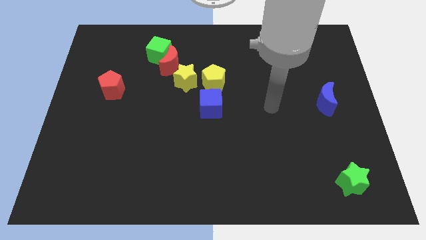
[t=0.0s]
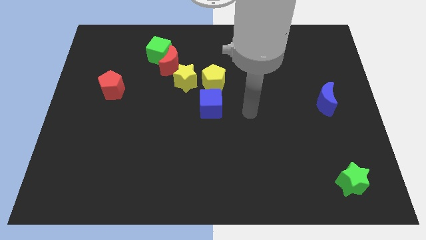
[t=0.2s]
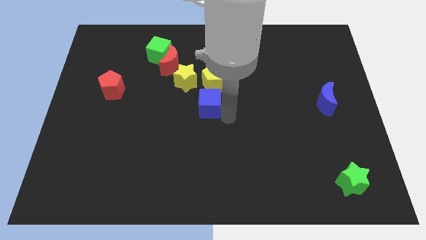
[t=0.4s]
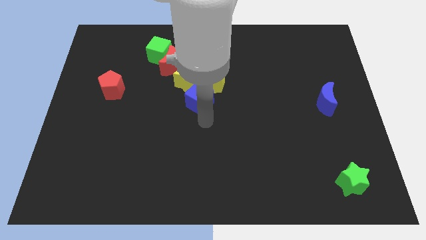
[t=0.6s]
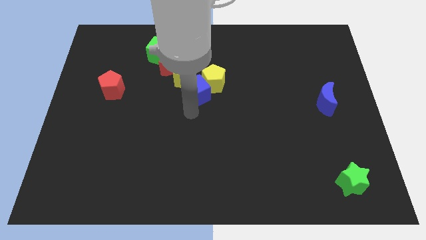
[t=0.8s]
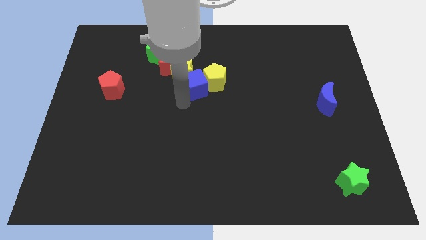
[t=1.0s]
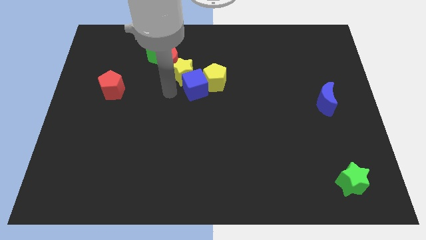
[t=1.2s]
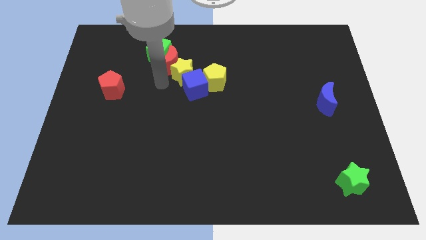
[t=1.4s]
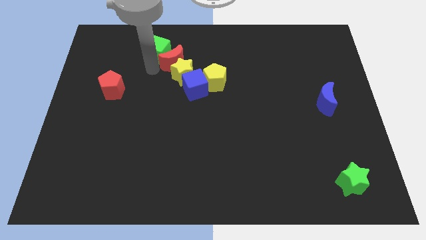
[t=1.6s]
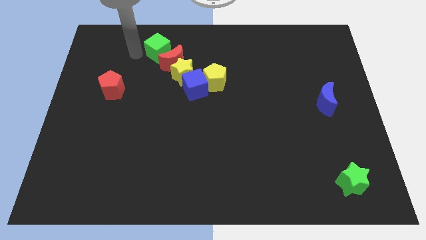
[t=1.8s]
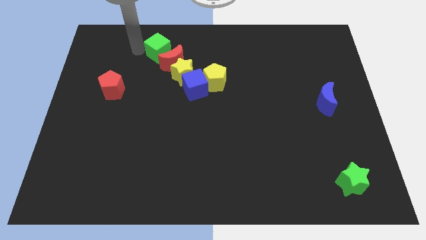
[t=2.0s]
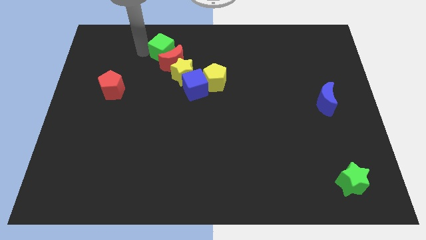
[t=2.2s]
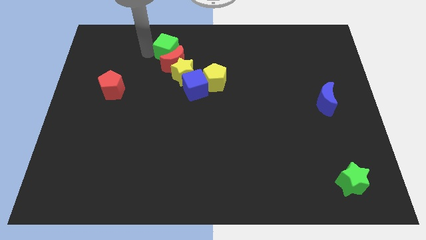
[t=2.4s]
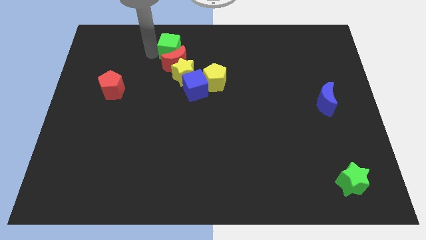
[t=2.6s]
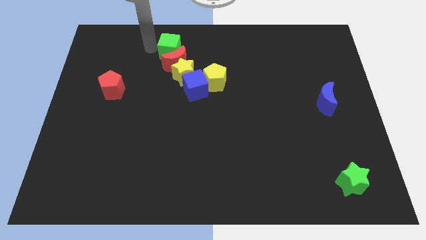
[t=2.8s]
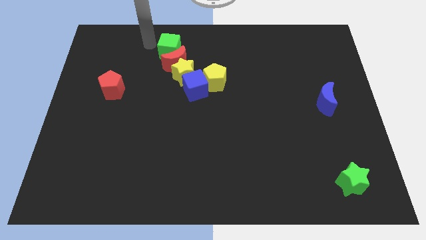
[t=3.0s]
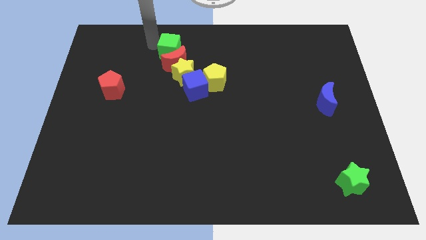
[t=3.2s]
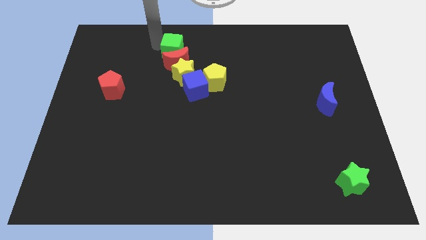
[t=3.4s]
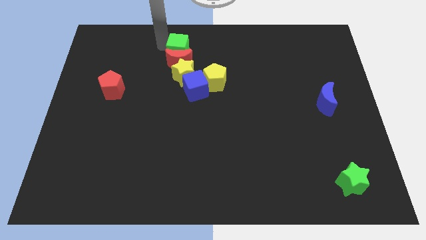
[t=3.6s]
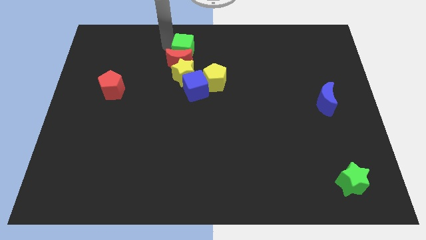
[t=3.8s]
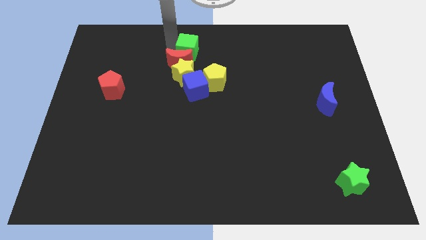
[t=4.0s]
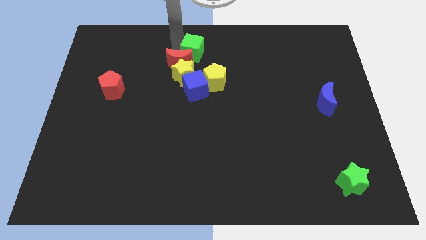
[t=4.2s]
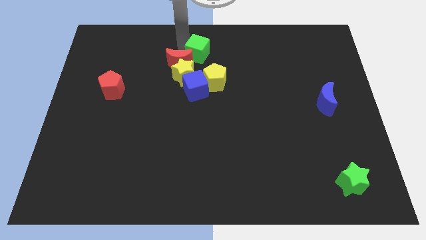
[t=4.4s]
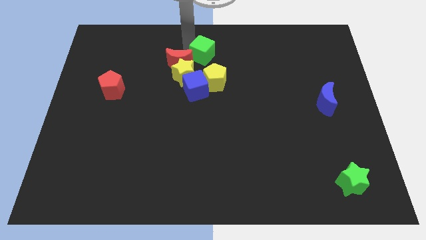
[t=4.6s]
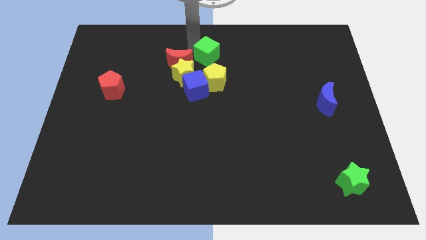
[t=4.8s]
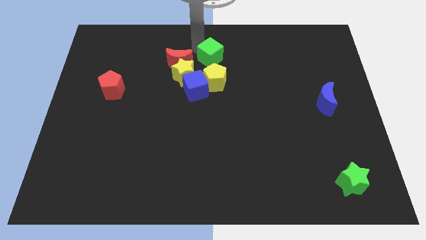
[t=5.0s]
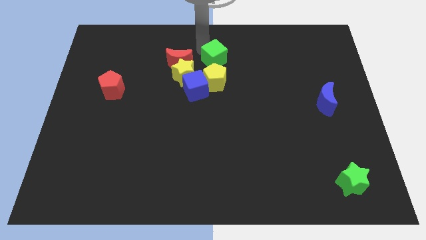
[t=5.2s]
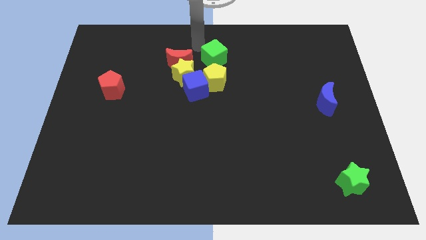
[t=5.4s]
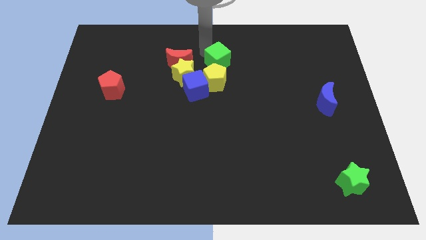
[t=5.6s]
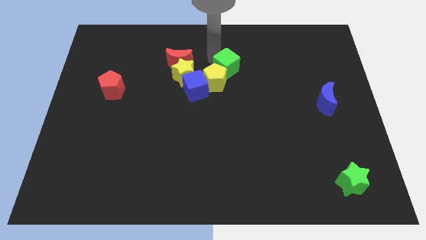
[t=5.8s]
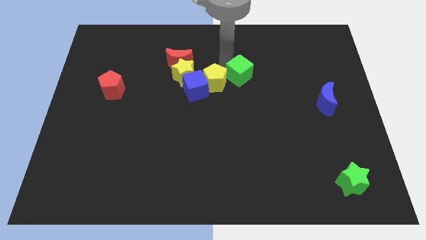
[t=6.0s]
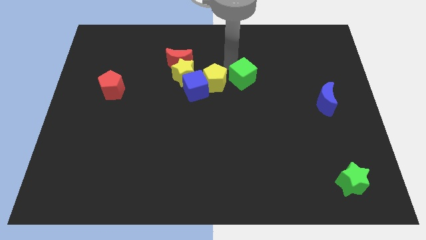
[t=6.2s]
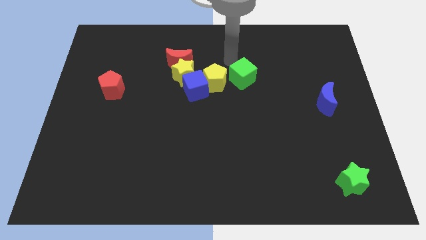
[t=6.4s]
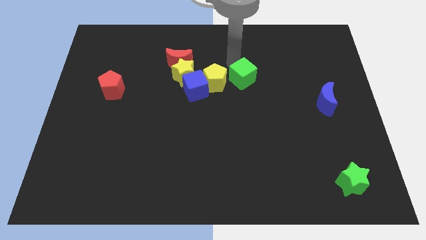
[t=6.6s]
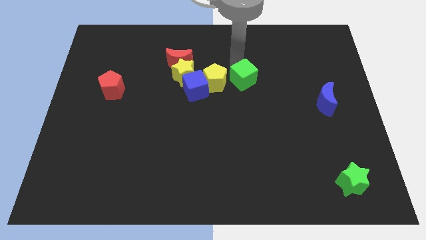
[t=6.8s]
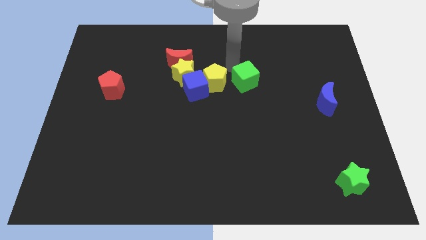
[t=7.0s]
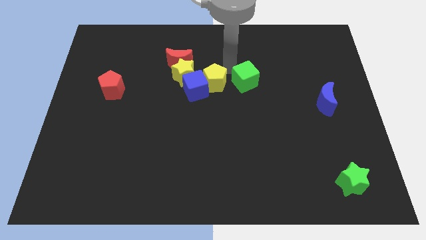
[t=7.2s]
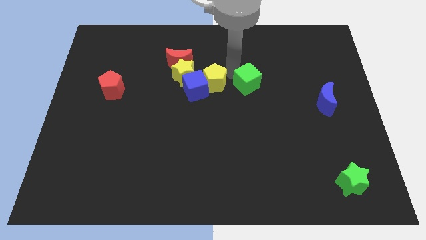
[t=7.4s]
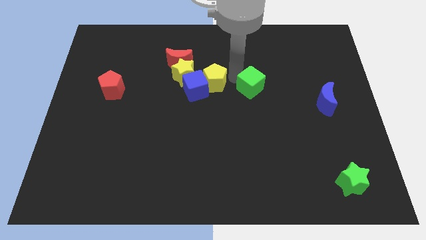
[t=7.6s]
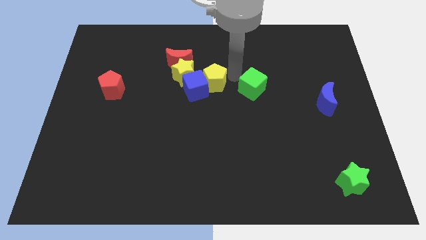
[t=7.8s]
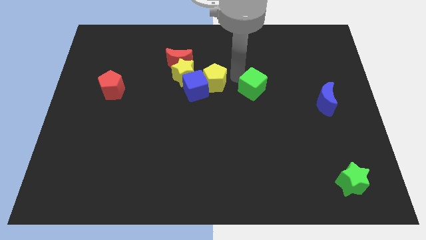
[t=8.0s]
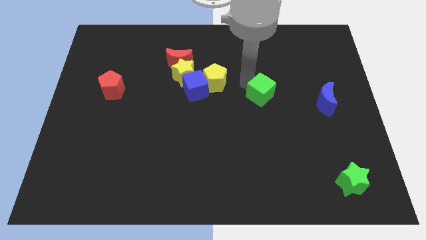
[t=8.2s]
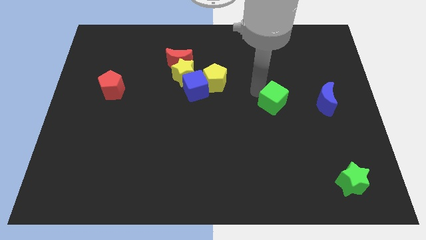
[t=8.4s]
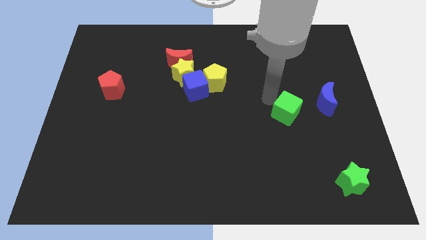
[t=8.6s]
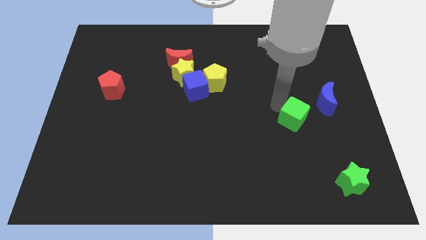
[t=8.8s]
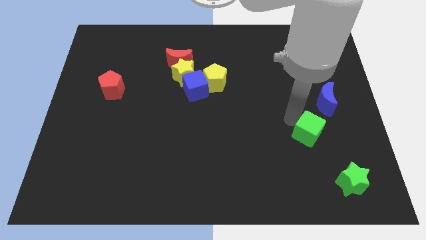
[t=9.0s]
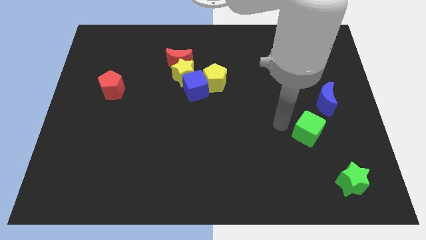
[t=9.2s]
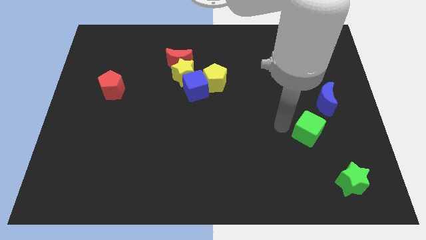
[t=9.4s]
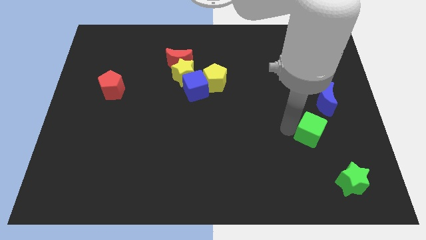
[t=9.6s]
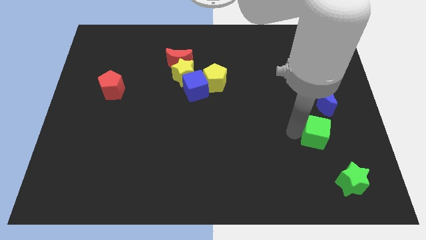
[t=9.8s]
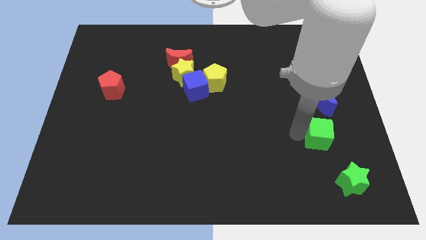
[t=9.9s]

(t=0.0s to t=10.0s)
put the green cube above the green star

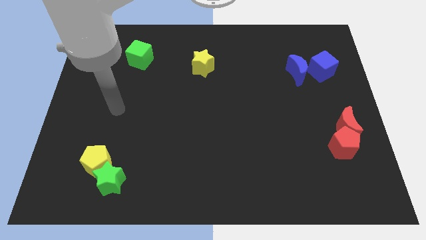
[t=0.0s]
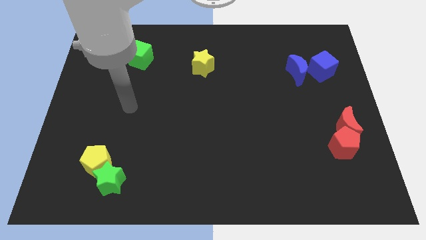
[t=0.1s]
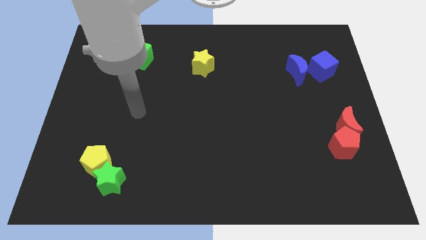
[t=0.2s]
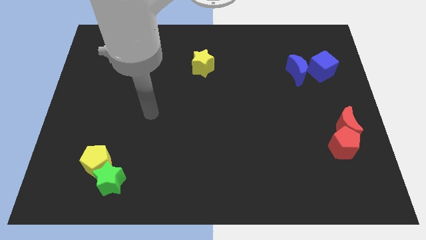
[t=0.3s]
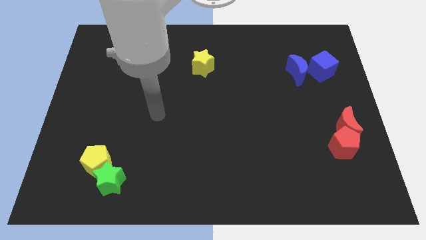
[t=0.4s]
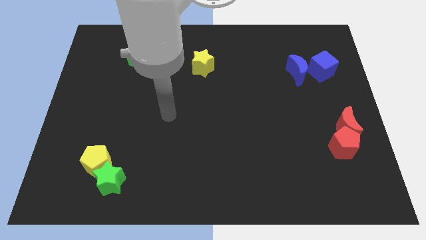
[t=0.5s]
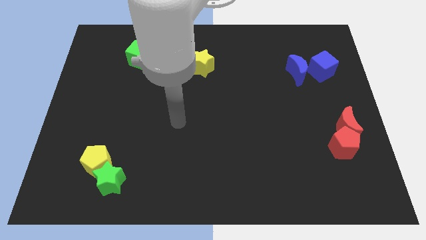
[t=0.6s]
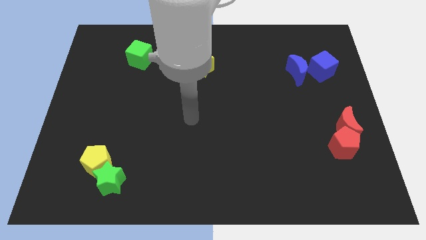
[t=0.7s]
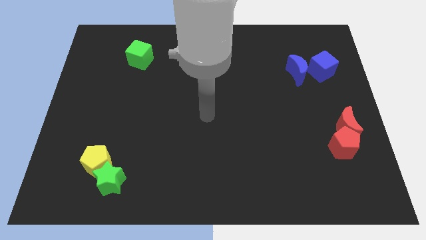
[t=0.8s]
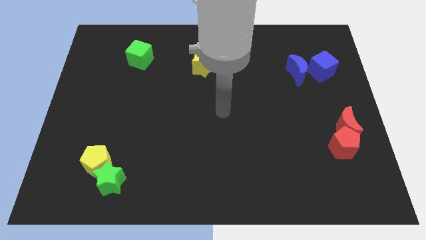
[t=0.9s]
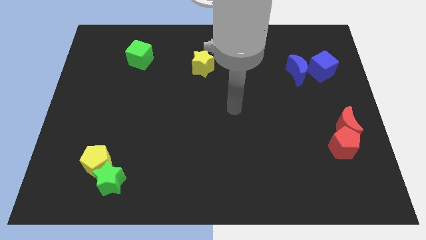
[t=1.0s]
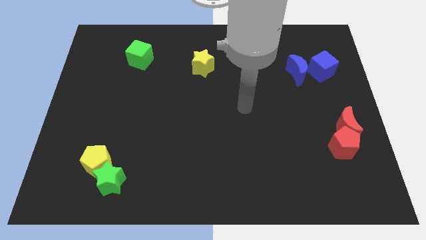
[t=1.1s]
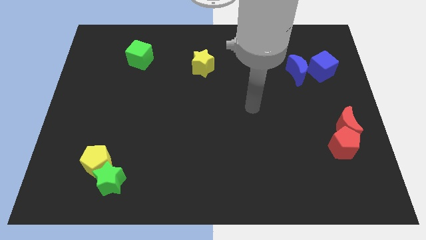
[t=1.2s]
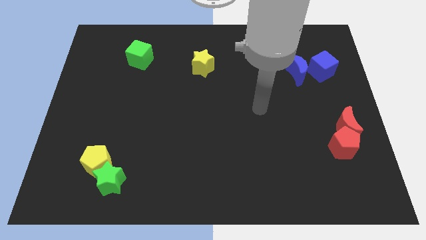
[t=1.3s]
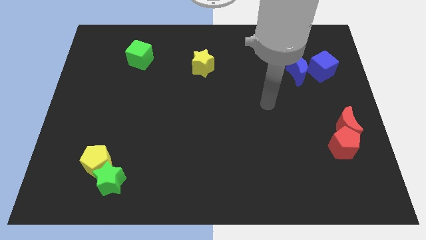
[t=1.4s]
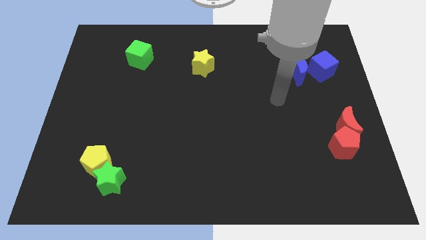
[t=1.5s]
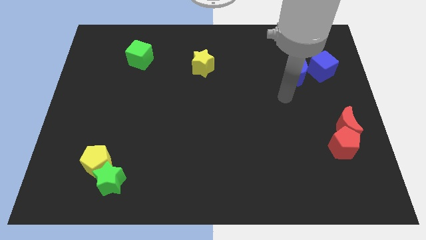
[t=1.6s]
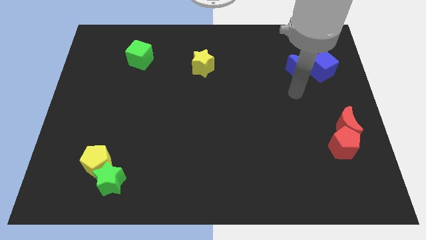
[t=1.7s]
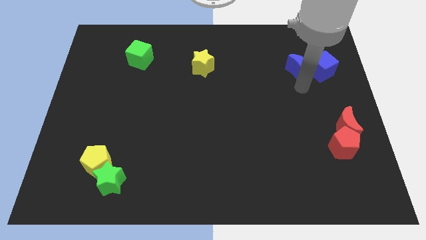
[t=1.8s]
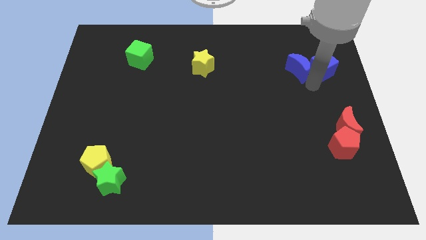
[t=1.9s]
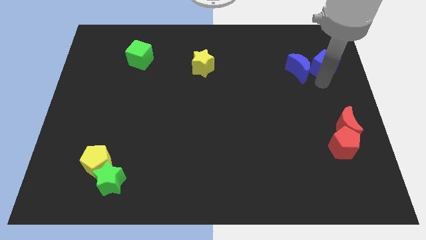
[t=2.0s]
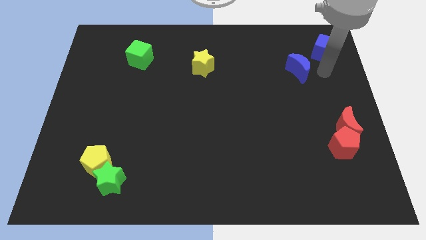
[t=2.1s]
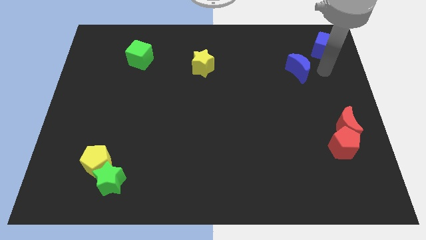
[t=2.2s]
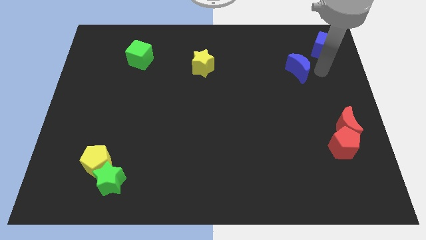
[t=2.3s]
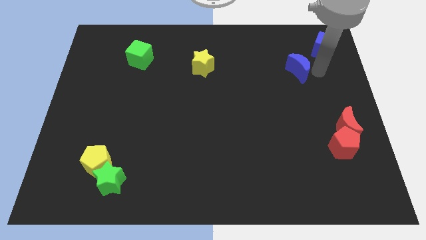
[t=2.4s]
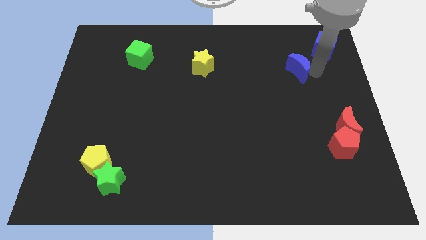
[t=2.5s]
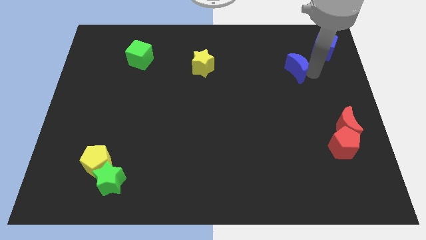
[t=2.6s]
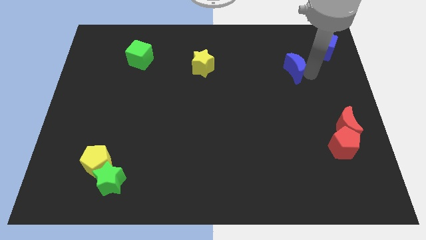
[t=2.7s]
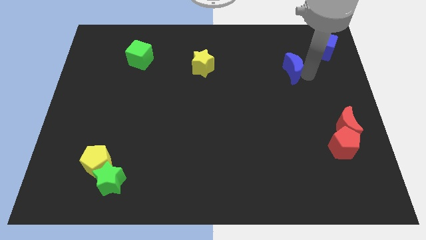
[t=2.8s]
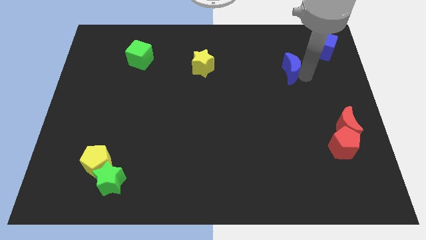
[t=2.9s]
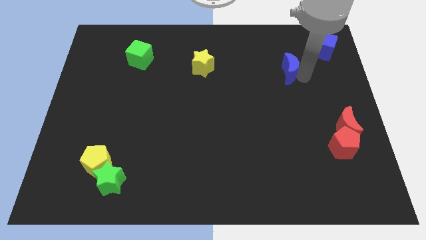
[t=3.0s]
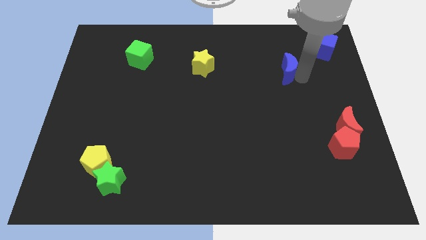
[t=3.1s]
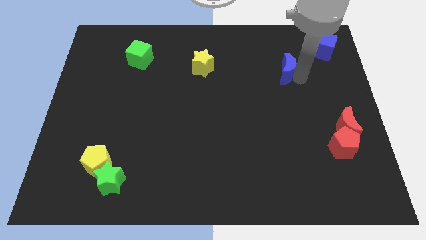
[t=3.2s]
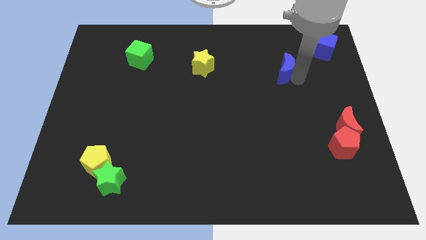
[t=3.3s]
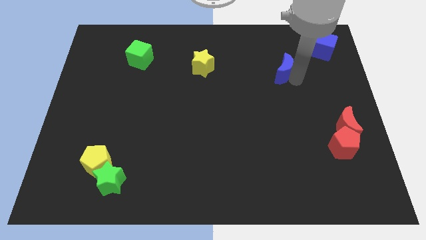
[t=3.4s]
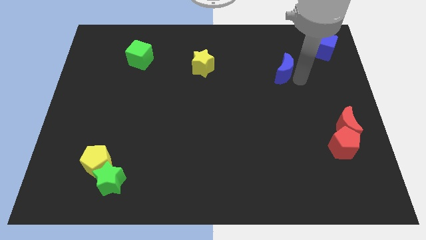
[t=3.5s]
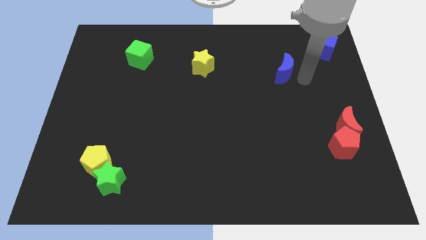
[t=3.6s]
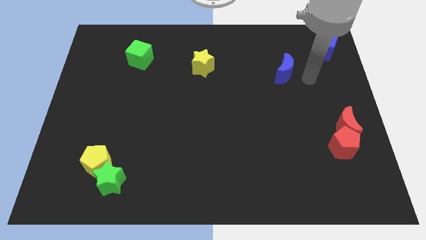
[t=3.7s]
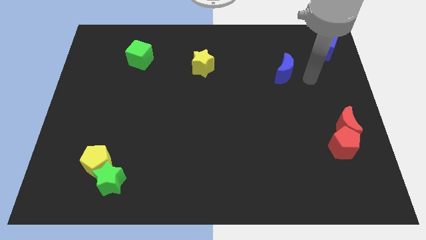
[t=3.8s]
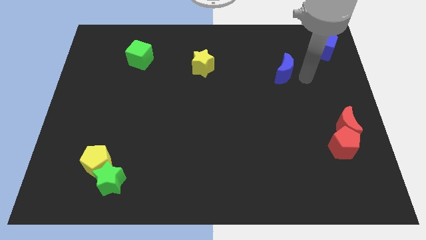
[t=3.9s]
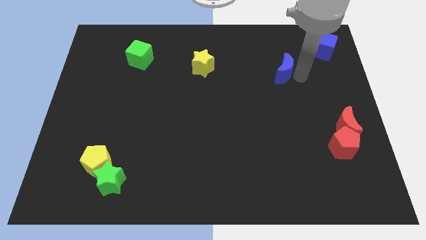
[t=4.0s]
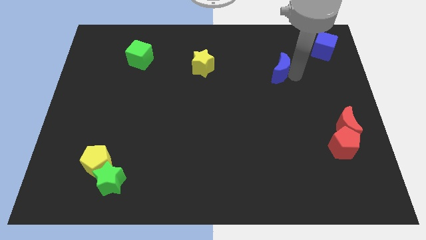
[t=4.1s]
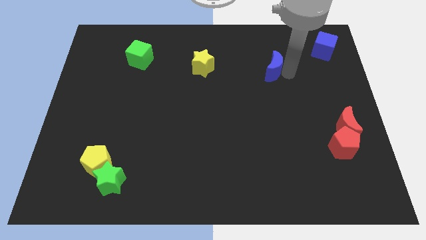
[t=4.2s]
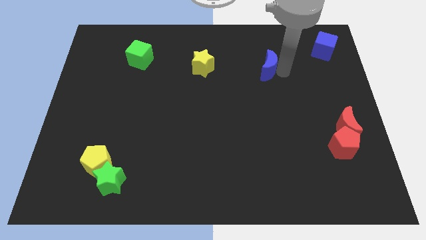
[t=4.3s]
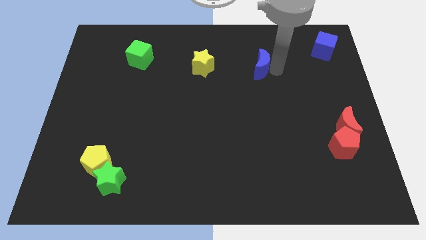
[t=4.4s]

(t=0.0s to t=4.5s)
slide the blue moon right of the yellow star
